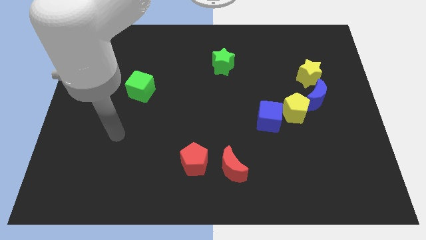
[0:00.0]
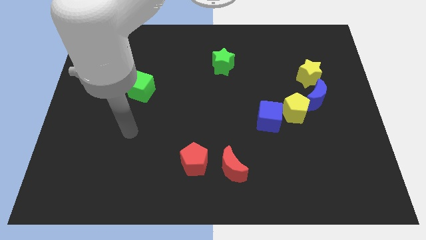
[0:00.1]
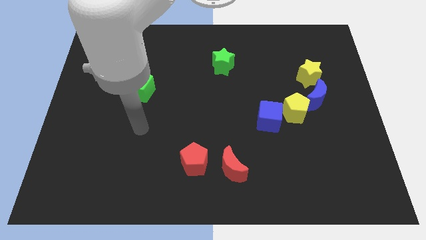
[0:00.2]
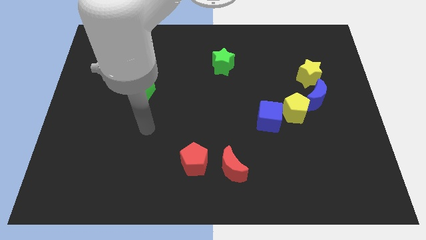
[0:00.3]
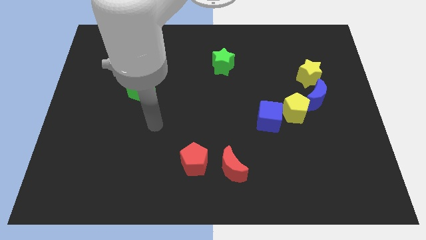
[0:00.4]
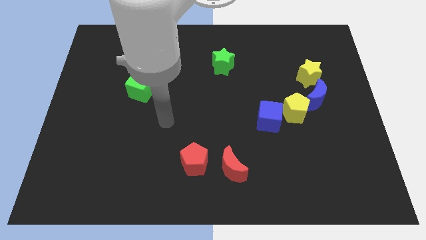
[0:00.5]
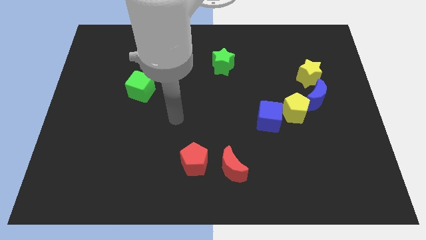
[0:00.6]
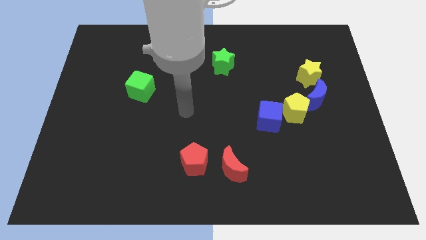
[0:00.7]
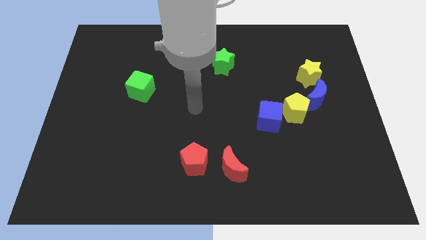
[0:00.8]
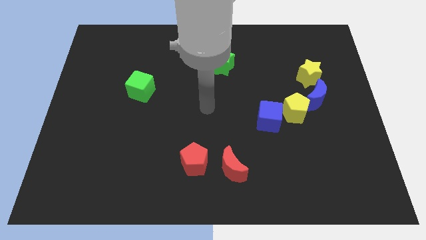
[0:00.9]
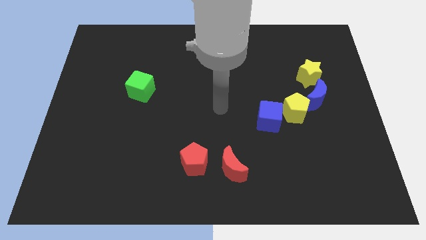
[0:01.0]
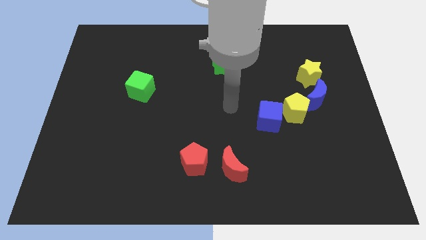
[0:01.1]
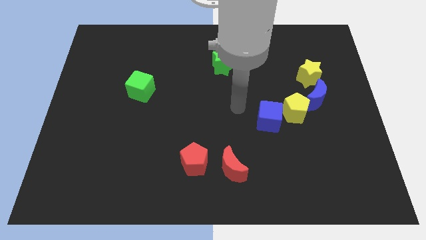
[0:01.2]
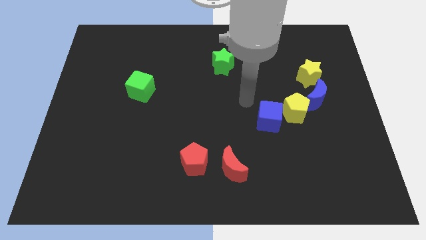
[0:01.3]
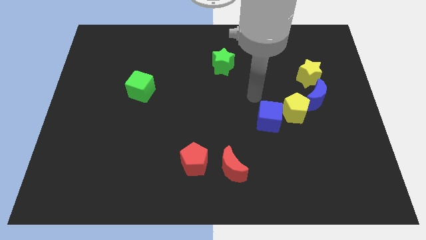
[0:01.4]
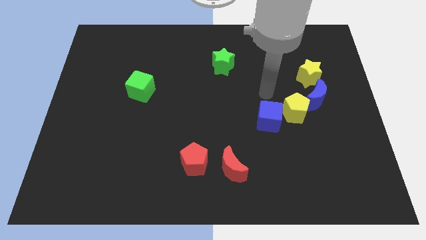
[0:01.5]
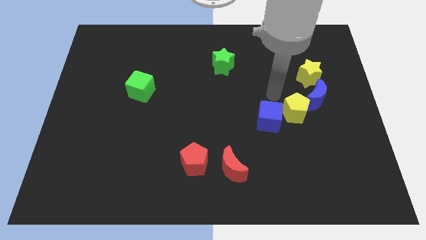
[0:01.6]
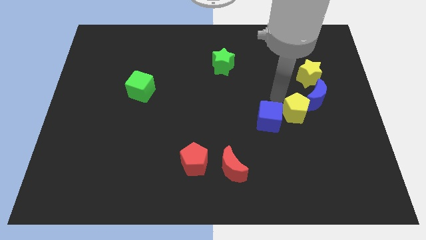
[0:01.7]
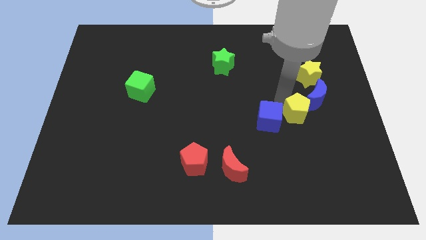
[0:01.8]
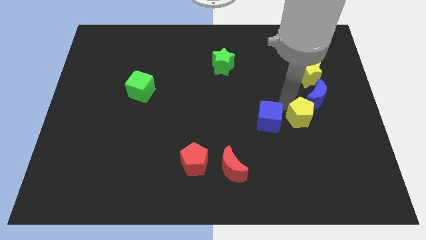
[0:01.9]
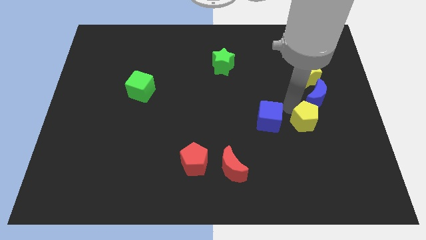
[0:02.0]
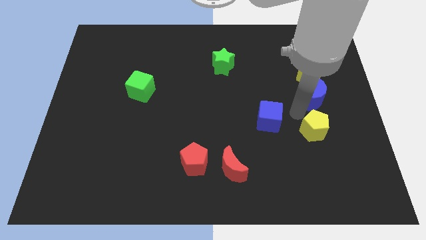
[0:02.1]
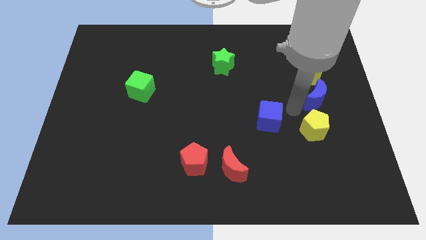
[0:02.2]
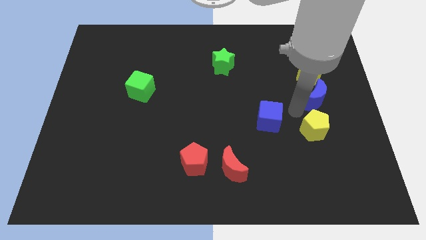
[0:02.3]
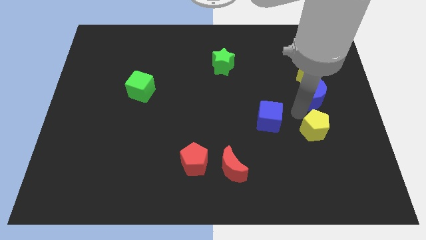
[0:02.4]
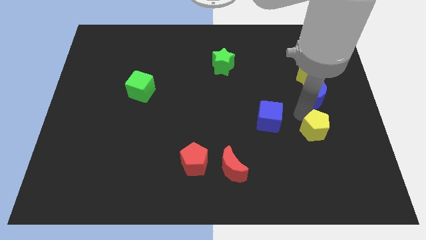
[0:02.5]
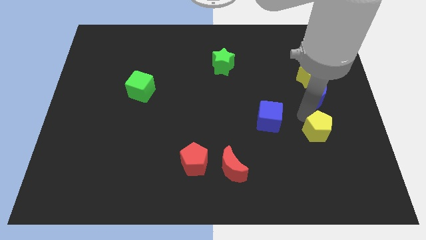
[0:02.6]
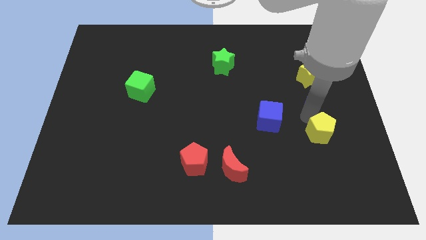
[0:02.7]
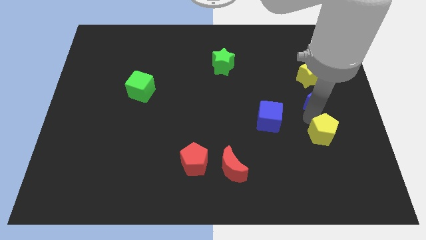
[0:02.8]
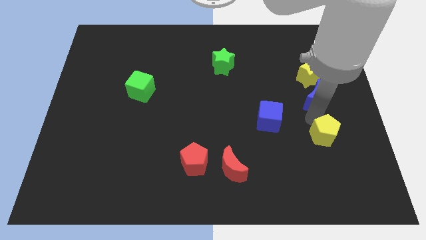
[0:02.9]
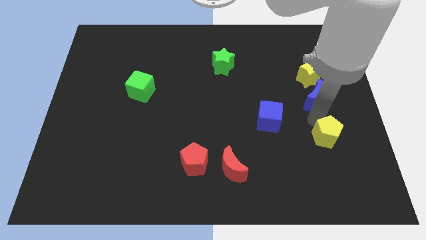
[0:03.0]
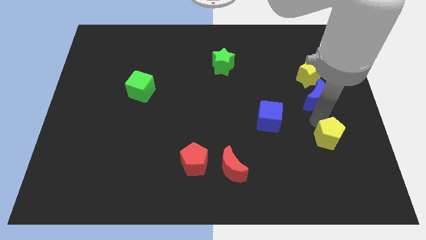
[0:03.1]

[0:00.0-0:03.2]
move the yellow pentagon away from the blue moon and blue cube

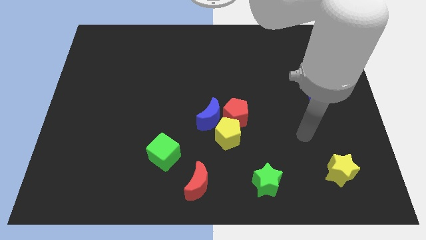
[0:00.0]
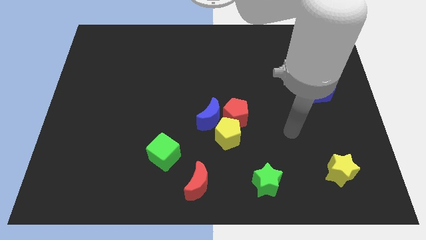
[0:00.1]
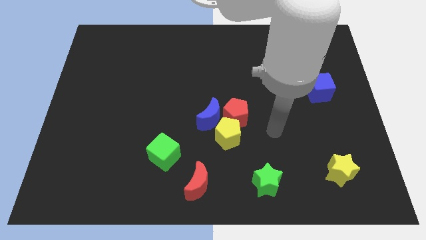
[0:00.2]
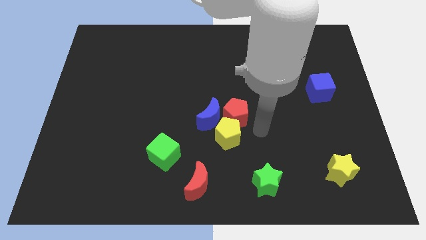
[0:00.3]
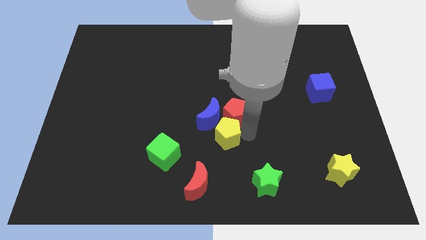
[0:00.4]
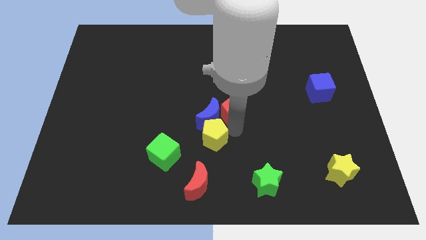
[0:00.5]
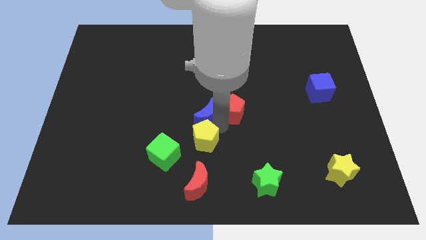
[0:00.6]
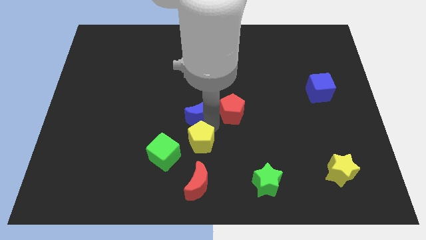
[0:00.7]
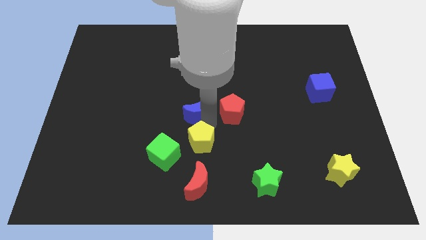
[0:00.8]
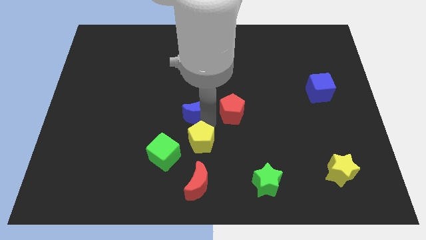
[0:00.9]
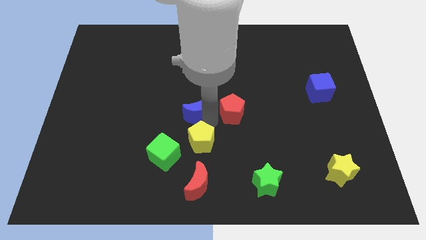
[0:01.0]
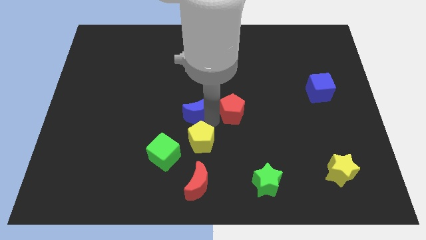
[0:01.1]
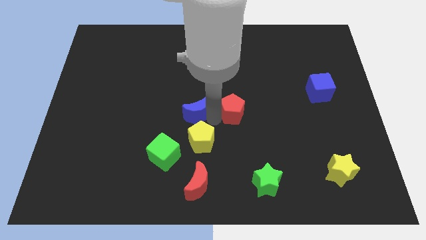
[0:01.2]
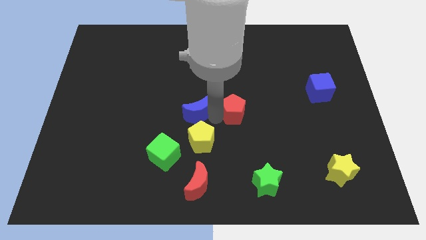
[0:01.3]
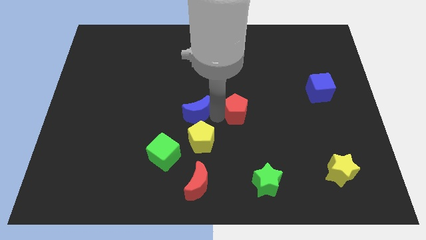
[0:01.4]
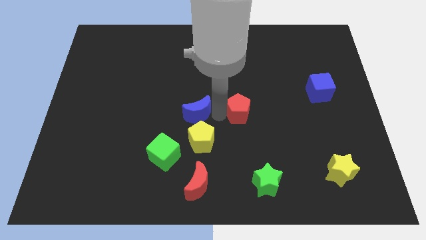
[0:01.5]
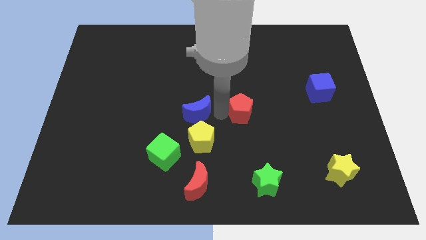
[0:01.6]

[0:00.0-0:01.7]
pull the red pentagon apart from the yellow pentagon and blue moon

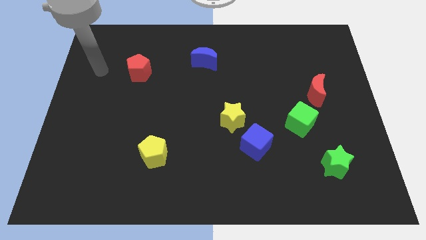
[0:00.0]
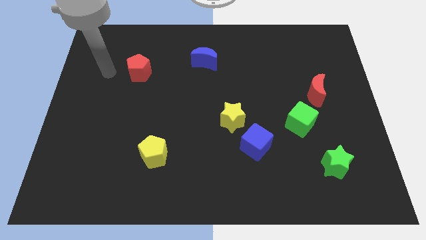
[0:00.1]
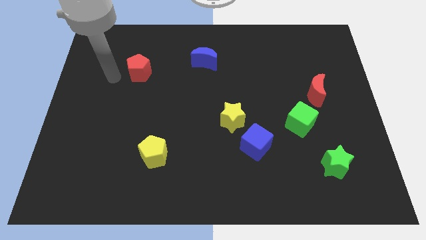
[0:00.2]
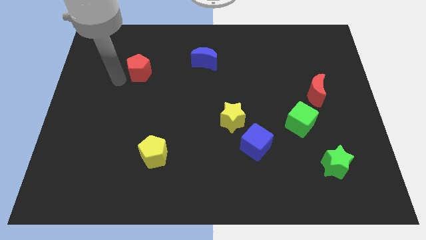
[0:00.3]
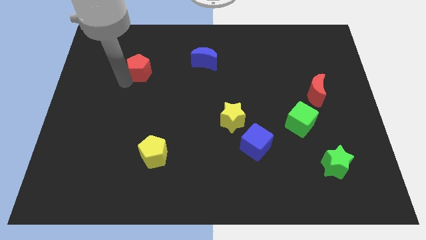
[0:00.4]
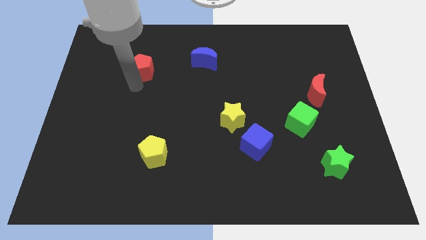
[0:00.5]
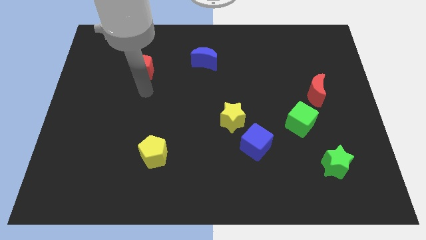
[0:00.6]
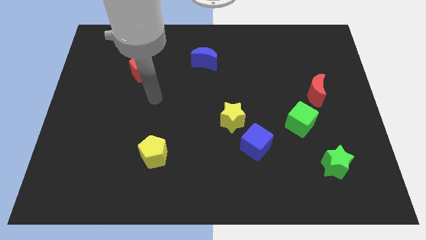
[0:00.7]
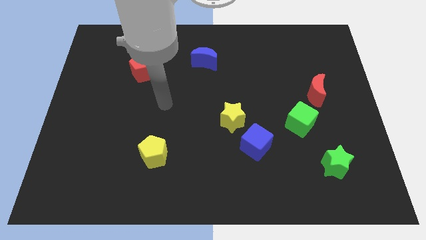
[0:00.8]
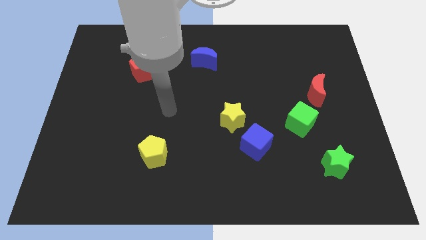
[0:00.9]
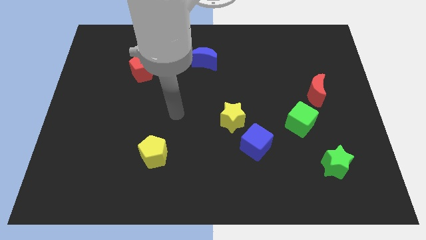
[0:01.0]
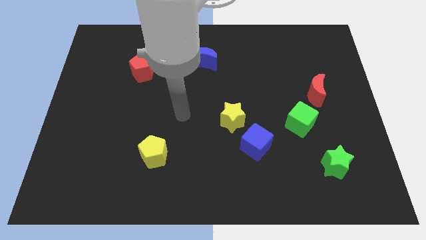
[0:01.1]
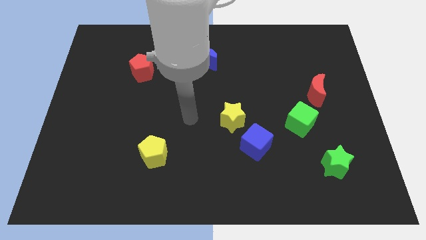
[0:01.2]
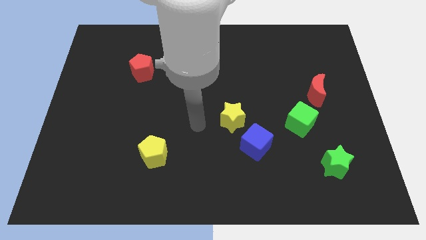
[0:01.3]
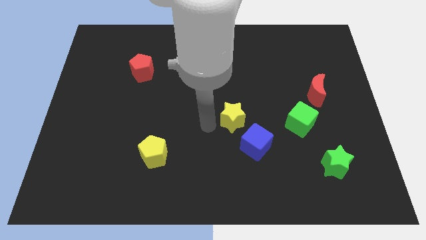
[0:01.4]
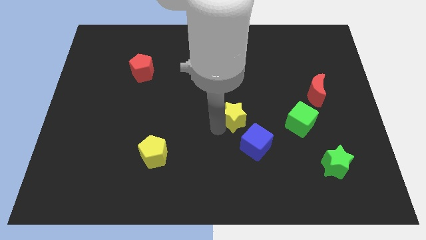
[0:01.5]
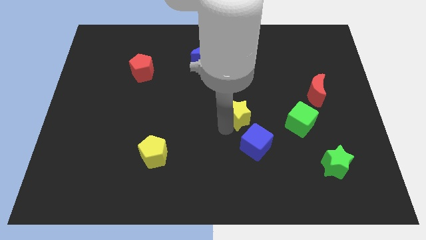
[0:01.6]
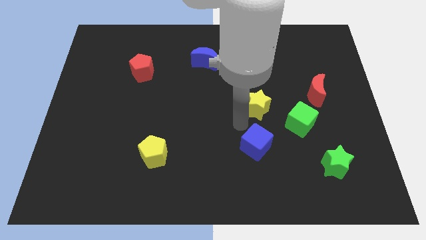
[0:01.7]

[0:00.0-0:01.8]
move the blue cube away from the yellow star

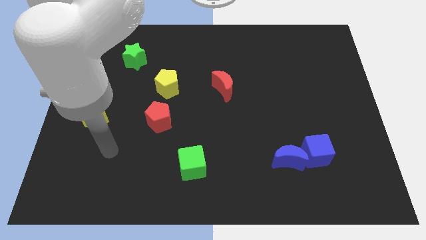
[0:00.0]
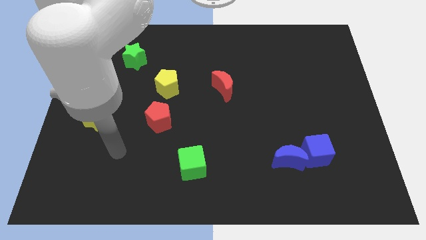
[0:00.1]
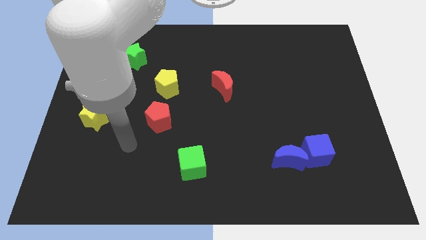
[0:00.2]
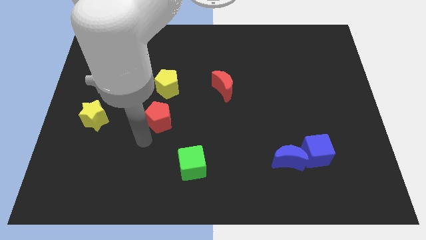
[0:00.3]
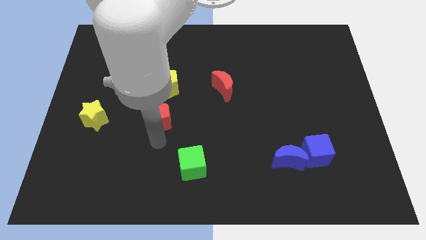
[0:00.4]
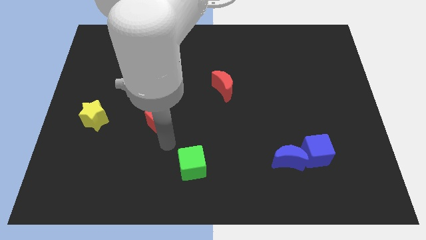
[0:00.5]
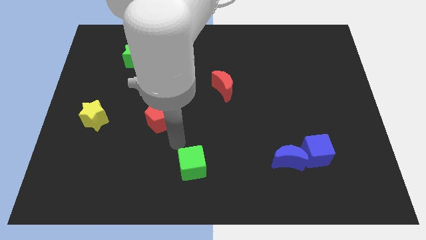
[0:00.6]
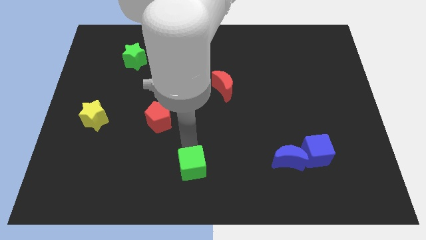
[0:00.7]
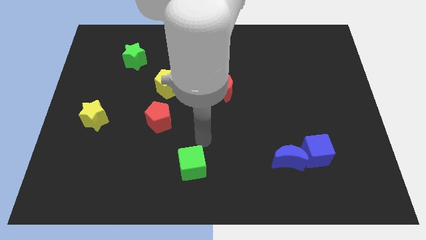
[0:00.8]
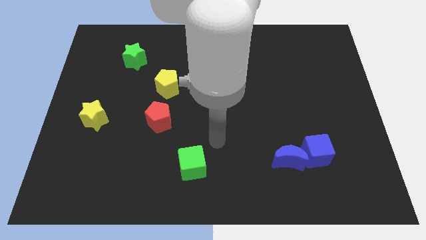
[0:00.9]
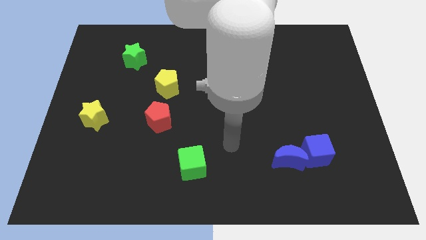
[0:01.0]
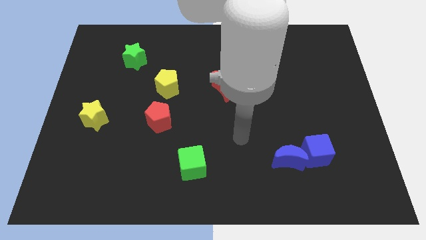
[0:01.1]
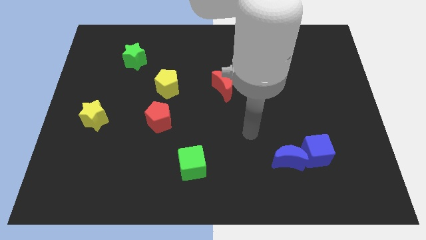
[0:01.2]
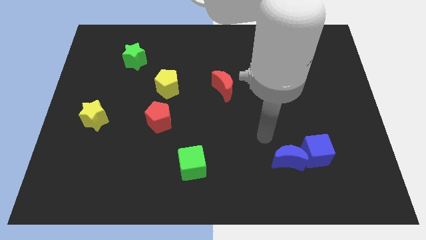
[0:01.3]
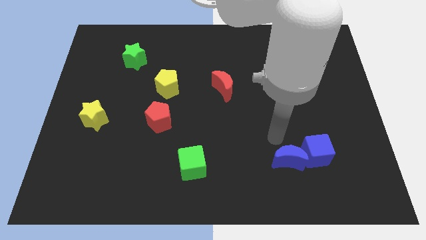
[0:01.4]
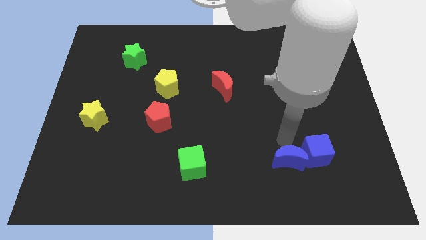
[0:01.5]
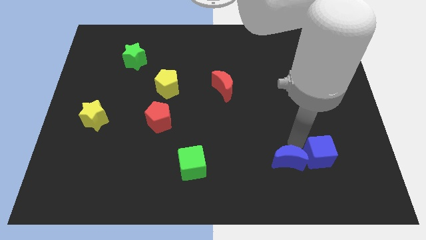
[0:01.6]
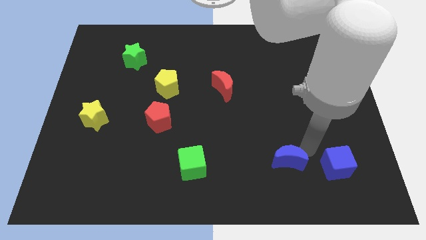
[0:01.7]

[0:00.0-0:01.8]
move the blue moon away from the blue cube

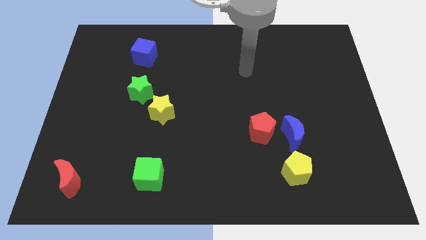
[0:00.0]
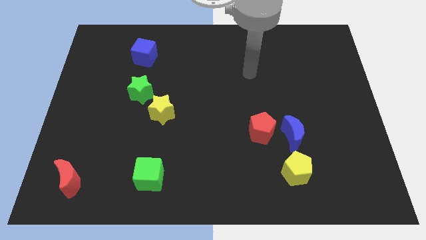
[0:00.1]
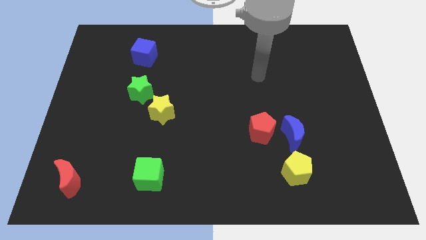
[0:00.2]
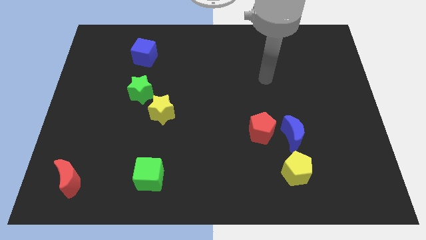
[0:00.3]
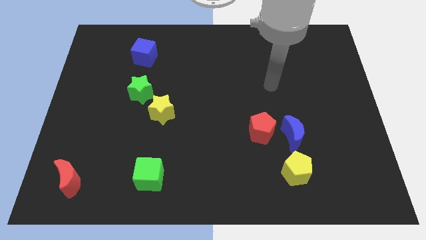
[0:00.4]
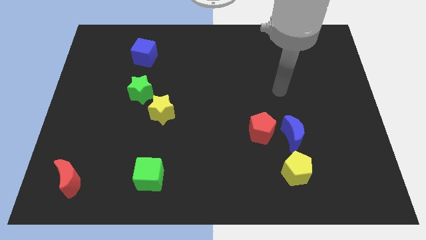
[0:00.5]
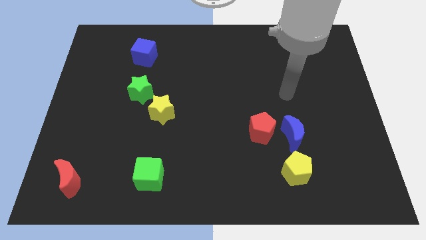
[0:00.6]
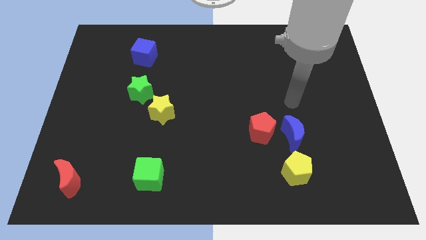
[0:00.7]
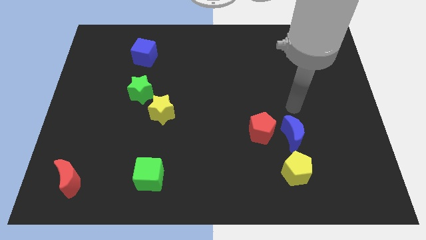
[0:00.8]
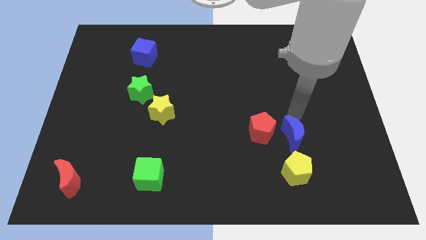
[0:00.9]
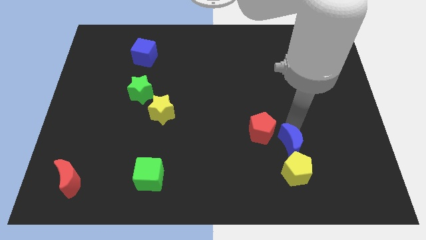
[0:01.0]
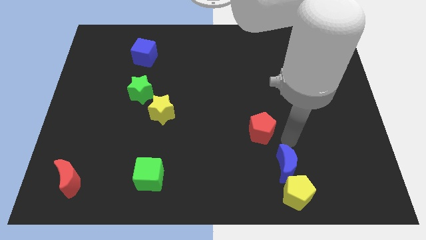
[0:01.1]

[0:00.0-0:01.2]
separate the red pentagon from the blue moon
